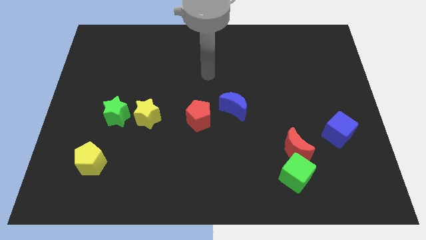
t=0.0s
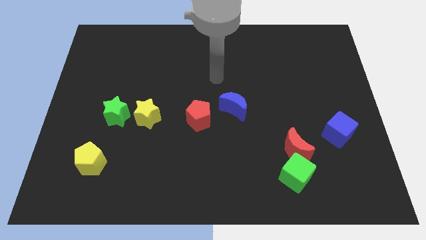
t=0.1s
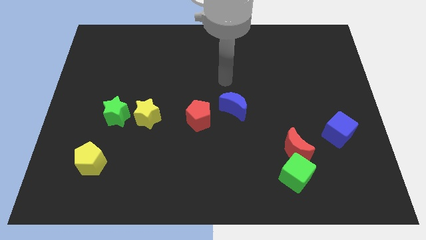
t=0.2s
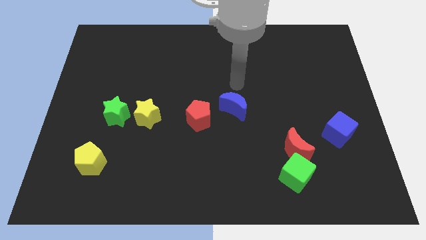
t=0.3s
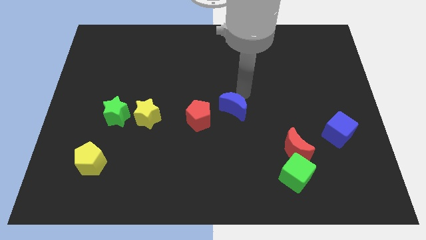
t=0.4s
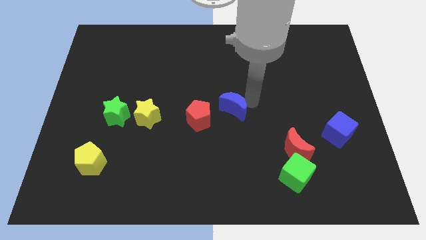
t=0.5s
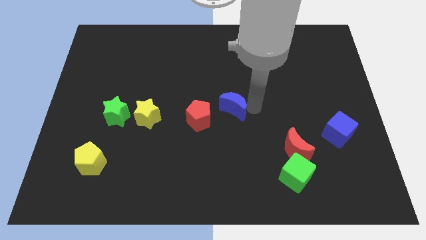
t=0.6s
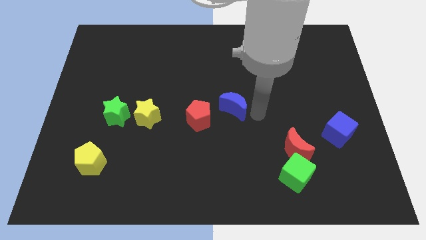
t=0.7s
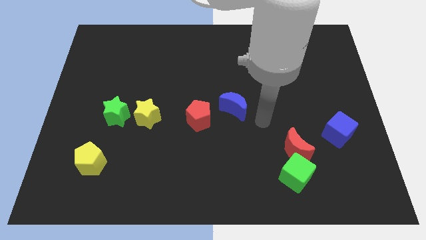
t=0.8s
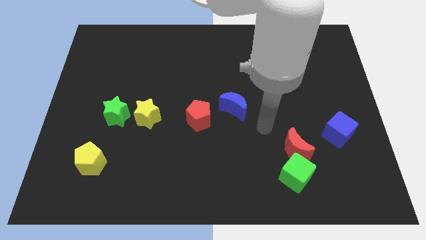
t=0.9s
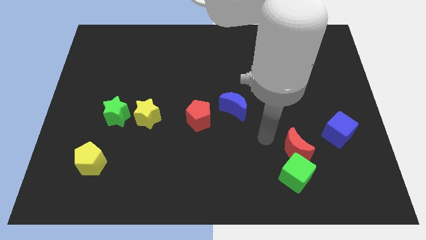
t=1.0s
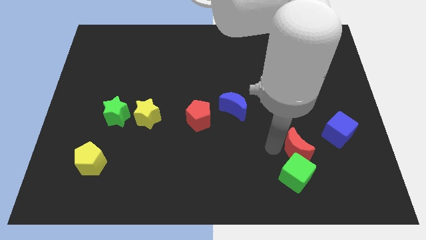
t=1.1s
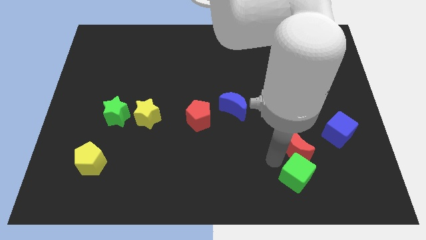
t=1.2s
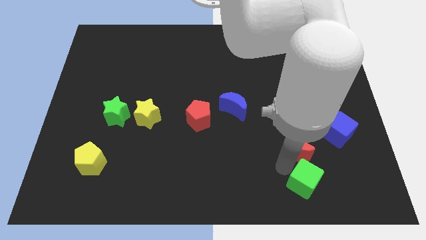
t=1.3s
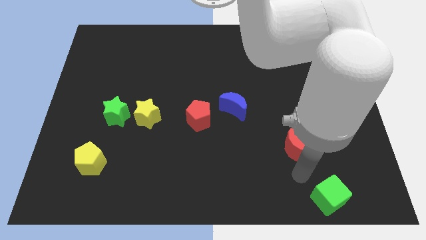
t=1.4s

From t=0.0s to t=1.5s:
separate the red moon from the green cube

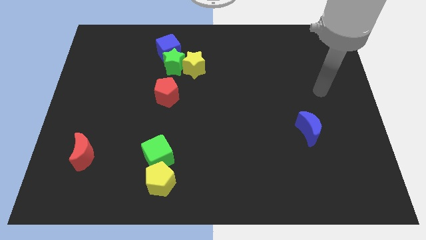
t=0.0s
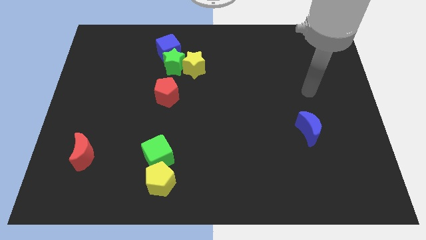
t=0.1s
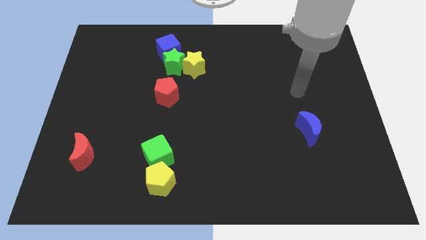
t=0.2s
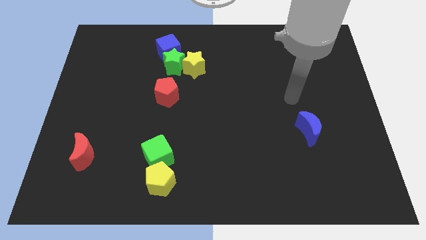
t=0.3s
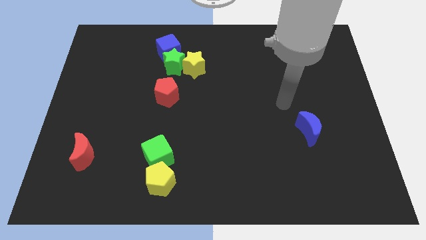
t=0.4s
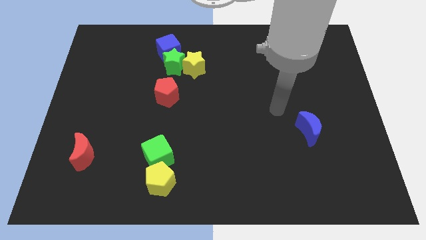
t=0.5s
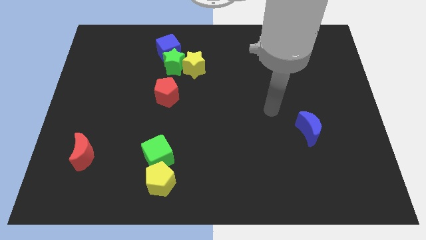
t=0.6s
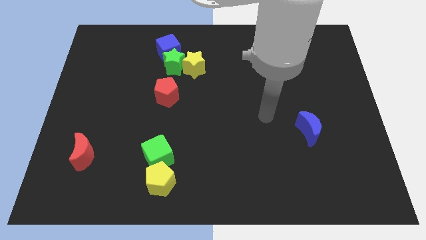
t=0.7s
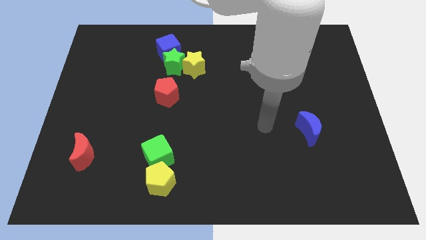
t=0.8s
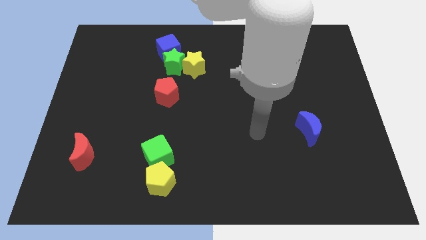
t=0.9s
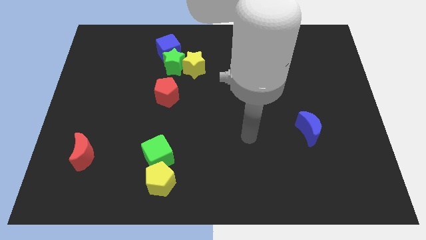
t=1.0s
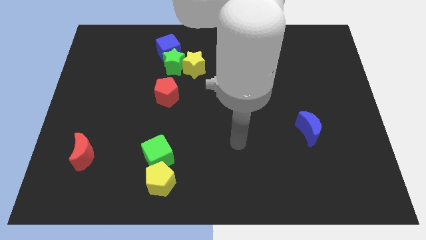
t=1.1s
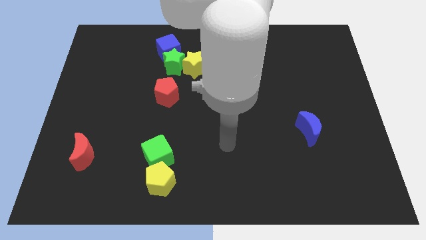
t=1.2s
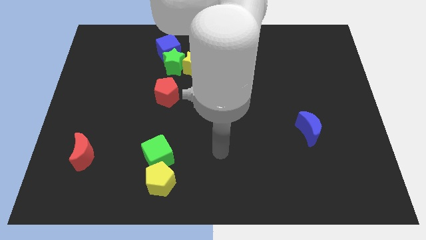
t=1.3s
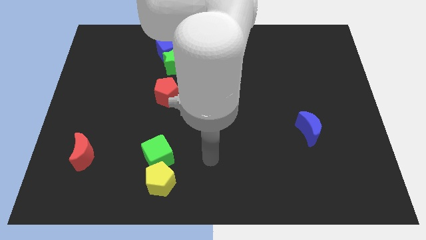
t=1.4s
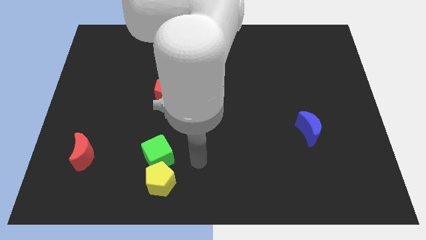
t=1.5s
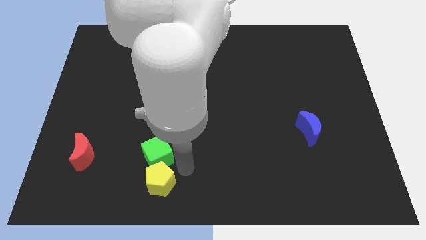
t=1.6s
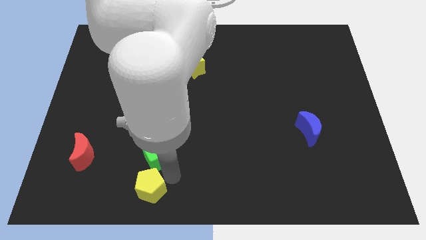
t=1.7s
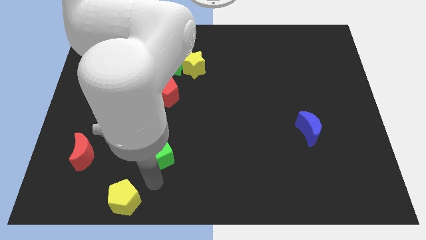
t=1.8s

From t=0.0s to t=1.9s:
pull the green cube apart from the yellow pentagon

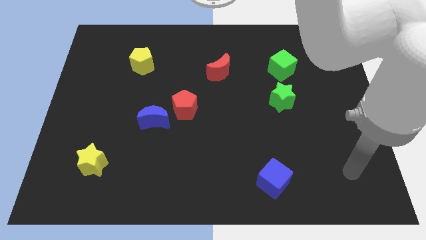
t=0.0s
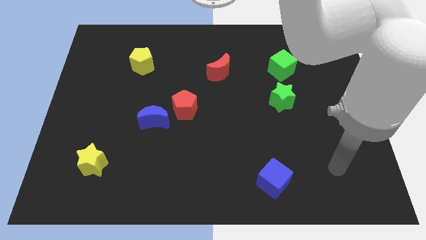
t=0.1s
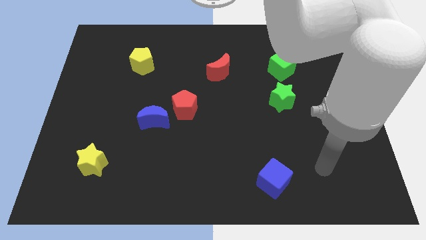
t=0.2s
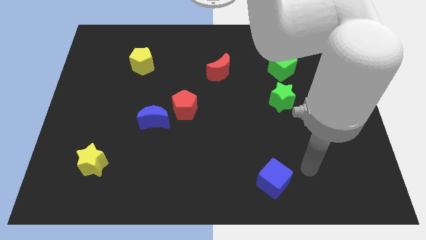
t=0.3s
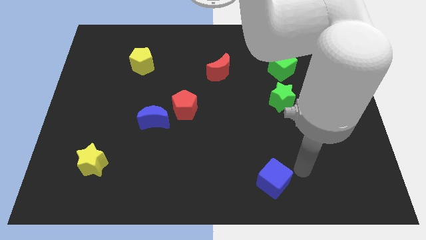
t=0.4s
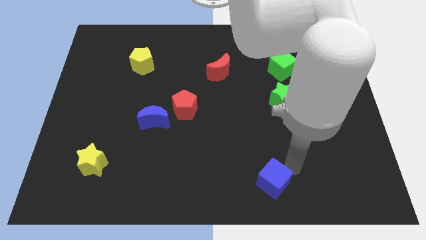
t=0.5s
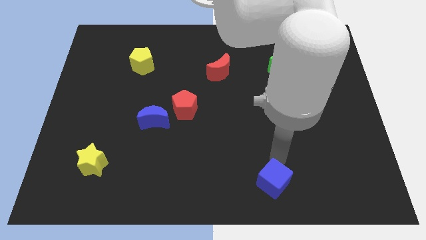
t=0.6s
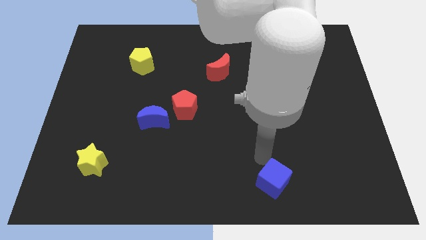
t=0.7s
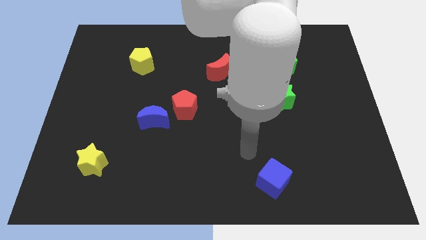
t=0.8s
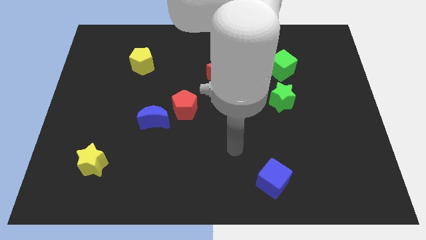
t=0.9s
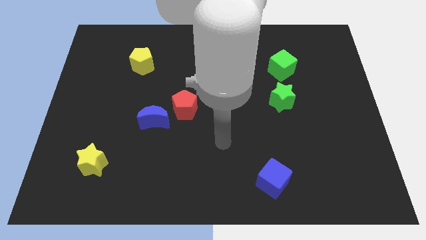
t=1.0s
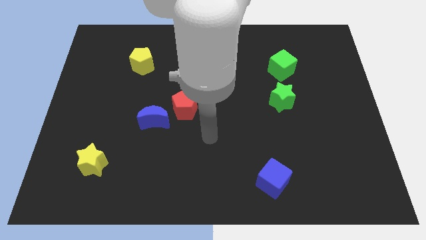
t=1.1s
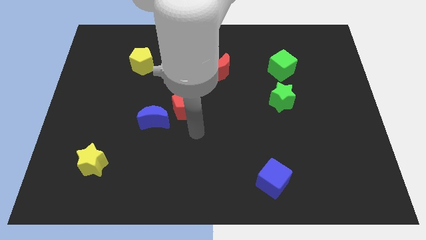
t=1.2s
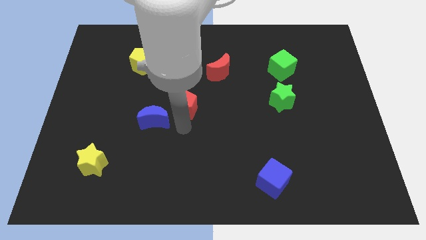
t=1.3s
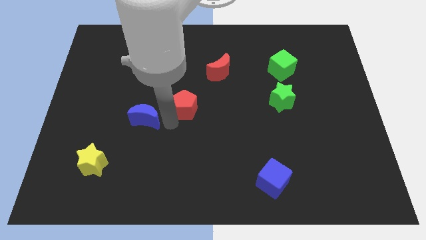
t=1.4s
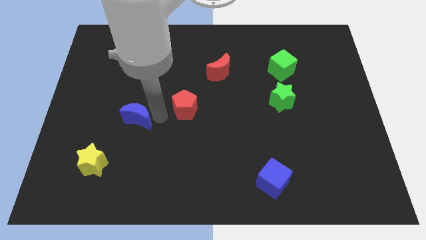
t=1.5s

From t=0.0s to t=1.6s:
pull the red pentagon apart from the blue moon

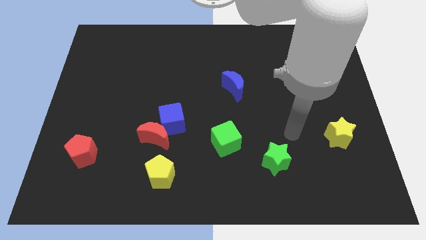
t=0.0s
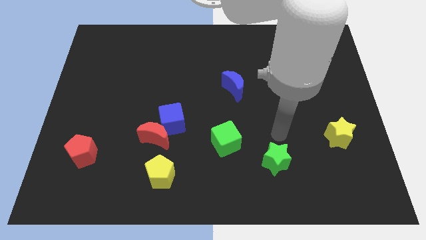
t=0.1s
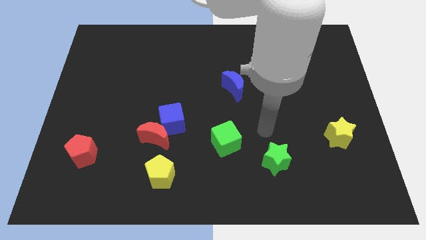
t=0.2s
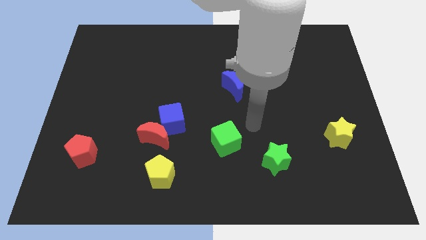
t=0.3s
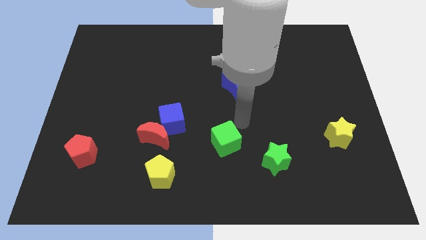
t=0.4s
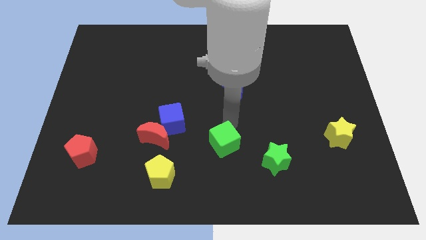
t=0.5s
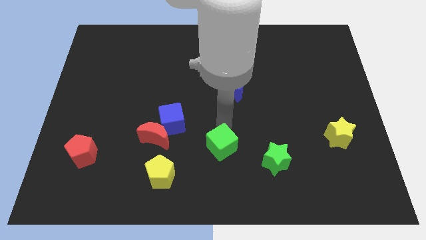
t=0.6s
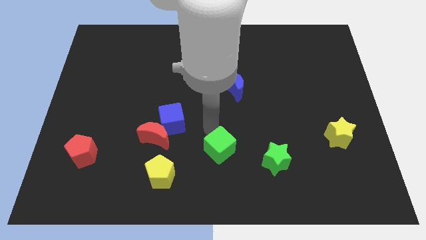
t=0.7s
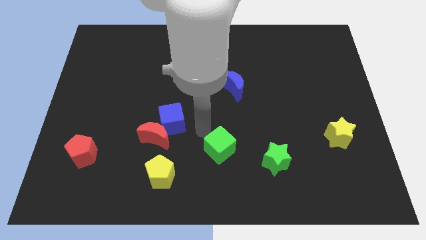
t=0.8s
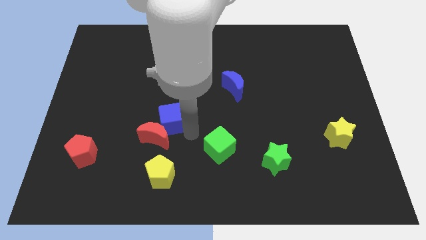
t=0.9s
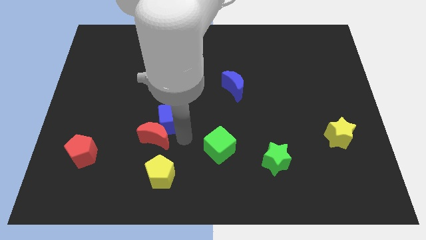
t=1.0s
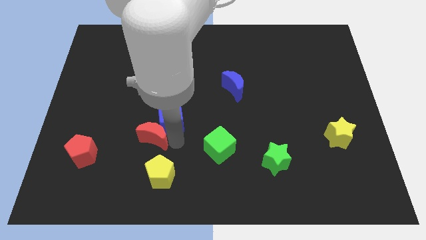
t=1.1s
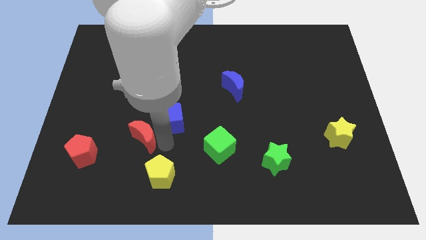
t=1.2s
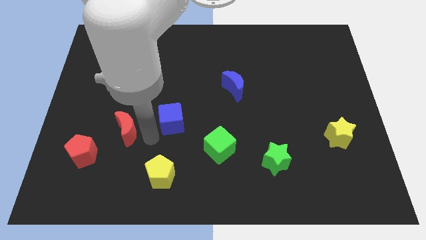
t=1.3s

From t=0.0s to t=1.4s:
separate the blue cube from the red moon

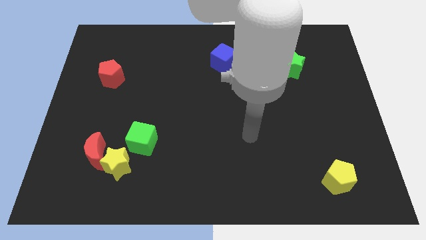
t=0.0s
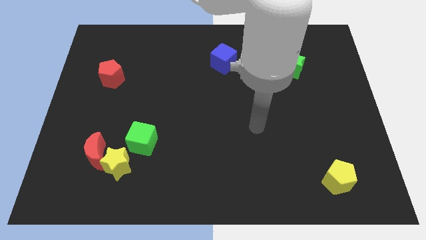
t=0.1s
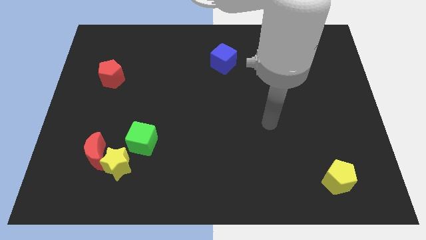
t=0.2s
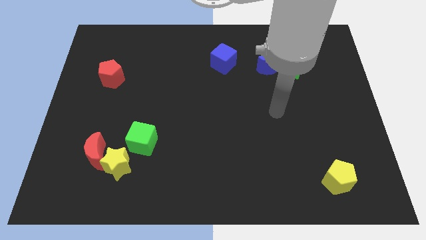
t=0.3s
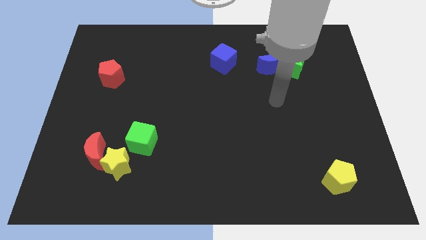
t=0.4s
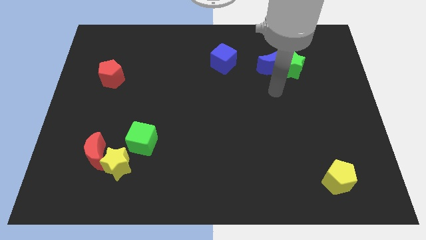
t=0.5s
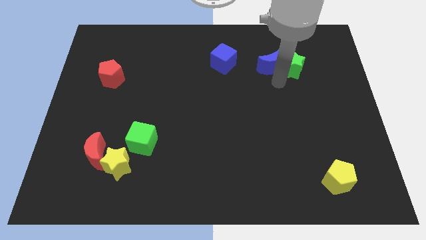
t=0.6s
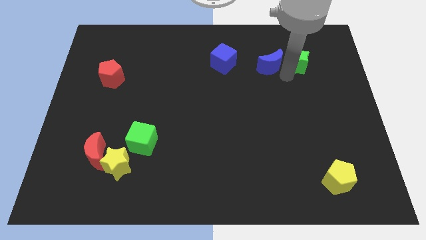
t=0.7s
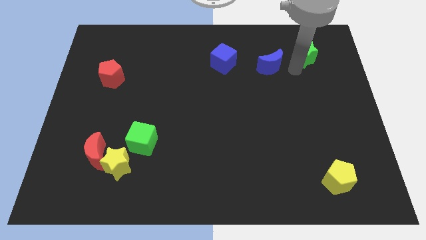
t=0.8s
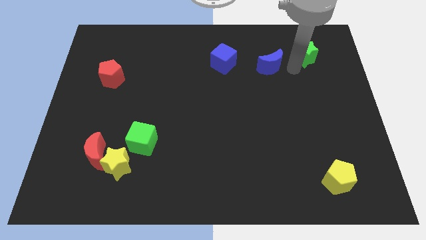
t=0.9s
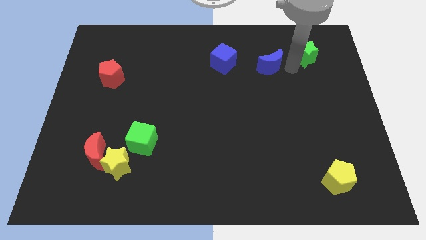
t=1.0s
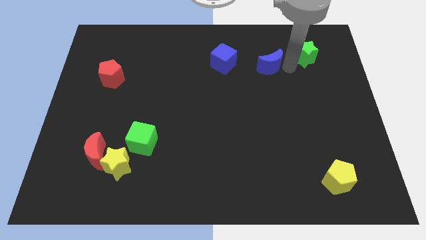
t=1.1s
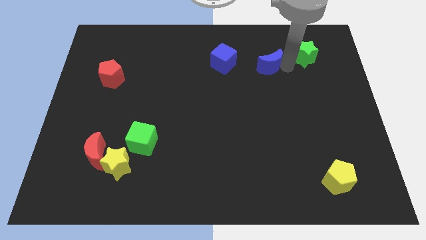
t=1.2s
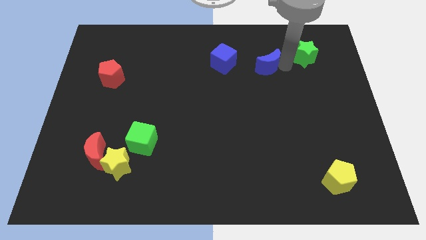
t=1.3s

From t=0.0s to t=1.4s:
separate the blue moon from the green star

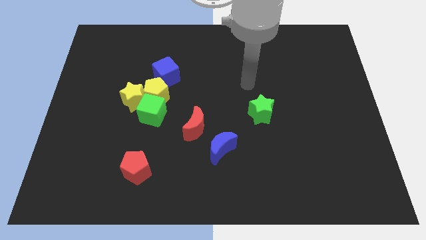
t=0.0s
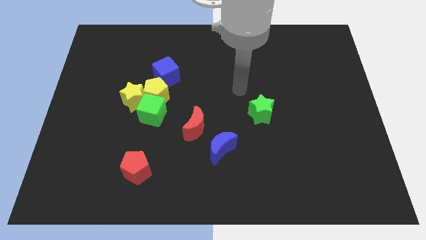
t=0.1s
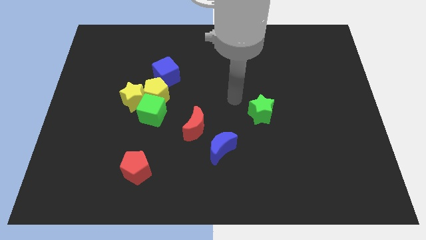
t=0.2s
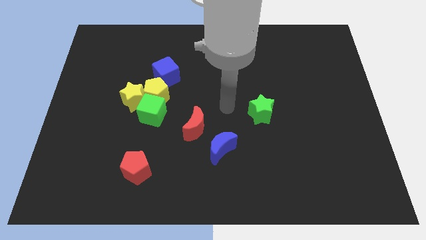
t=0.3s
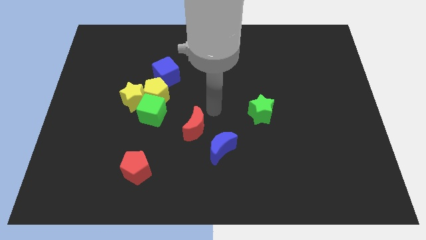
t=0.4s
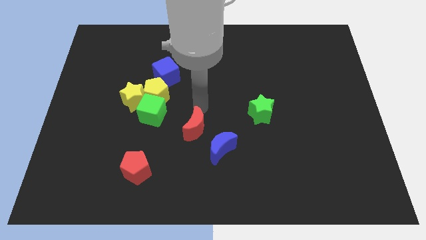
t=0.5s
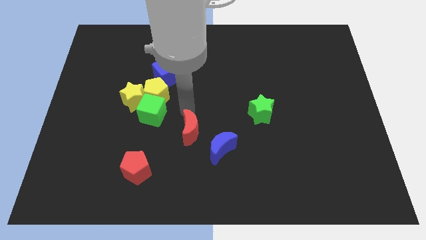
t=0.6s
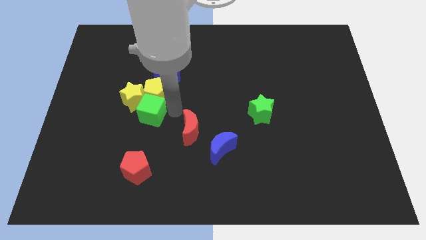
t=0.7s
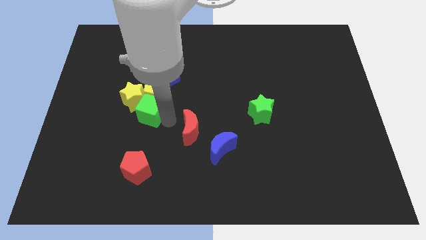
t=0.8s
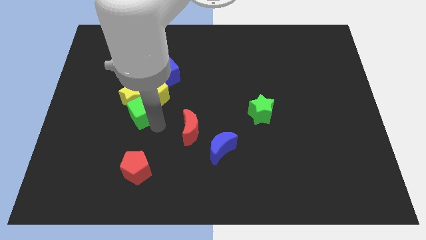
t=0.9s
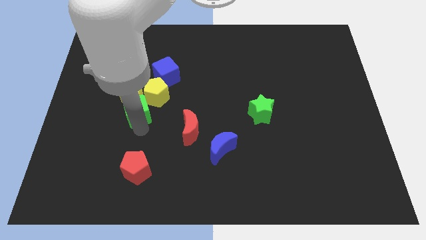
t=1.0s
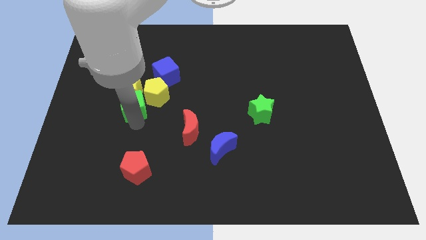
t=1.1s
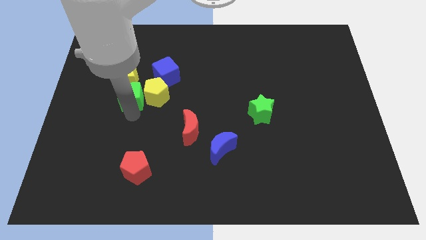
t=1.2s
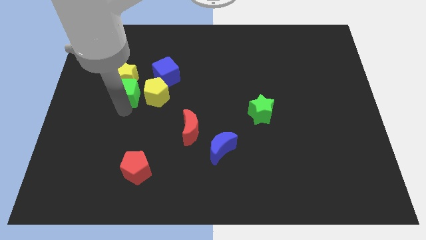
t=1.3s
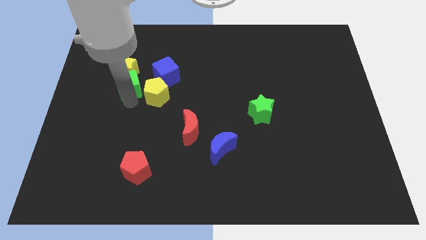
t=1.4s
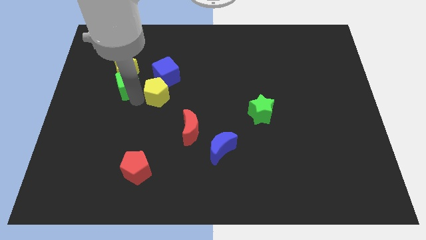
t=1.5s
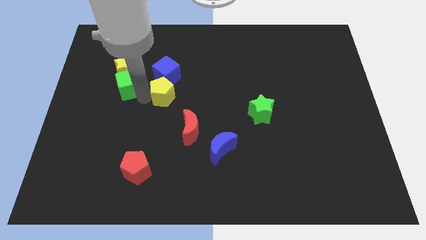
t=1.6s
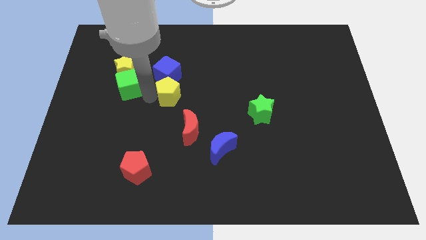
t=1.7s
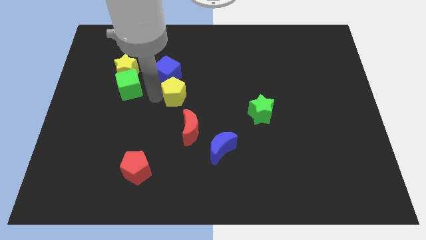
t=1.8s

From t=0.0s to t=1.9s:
move the yellow pentagon away from the group of blocks
